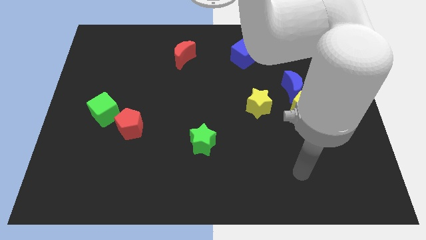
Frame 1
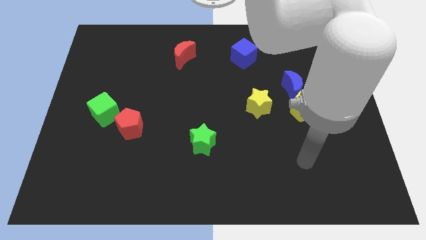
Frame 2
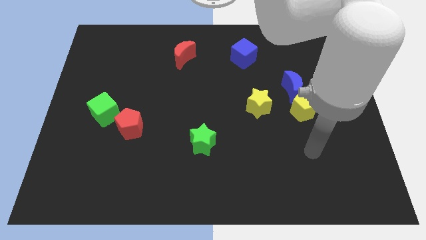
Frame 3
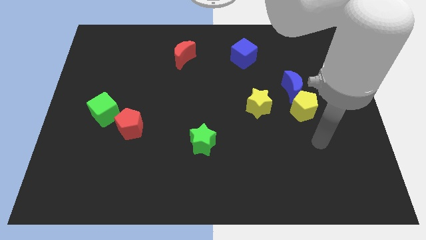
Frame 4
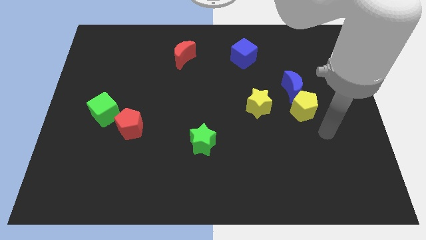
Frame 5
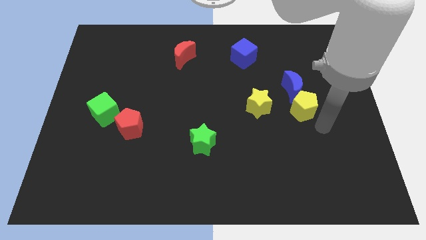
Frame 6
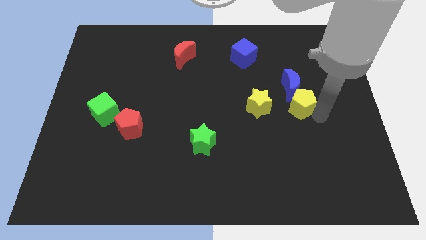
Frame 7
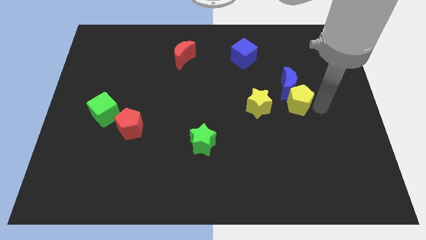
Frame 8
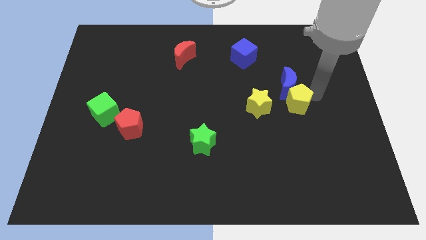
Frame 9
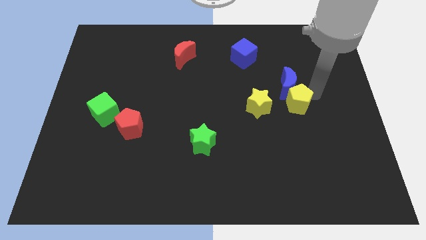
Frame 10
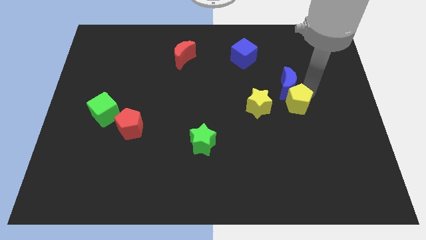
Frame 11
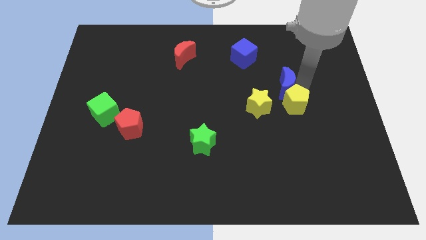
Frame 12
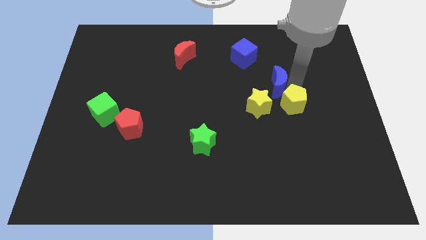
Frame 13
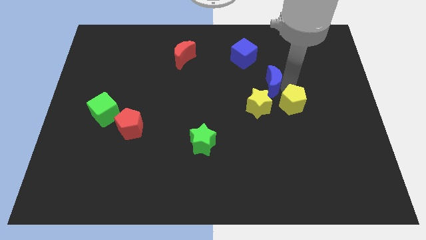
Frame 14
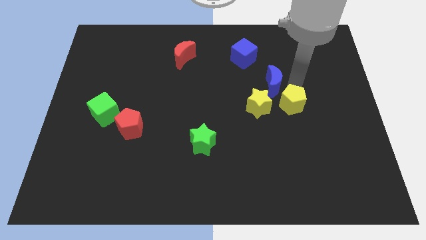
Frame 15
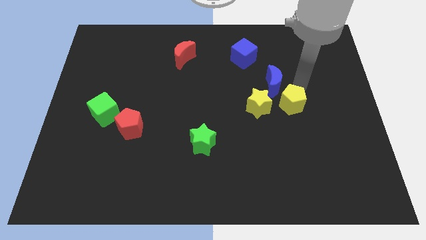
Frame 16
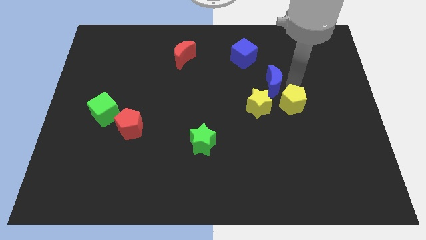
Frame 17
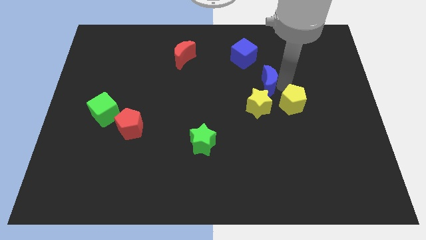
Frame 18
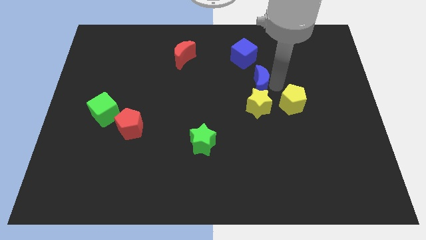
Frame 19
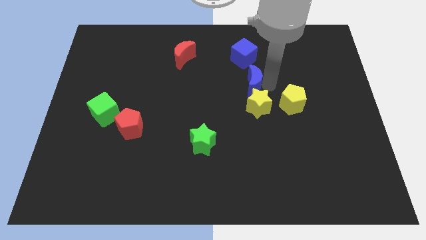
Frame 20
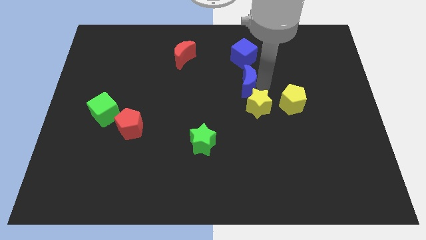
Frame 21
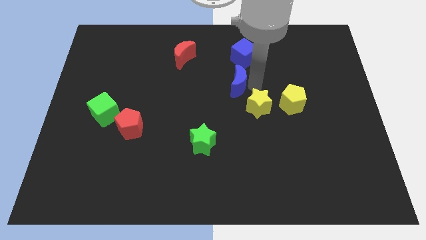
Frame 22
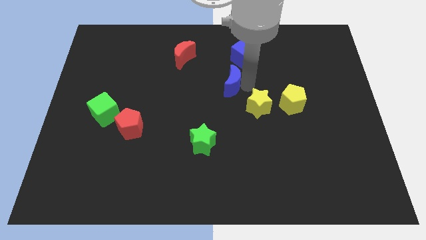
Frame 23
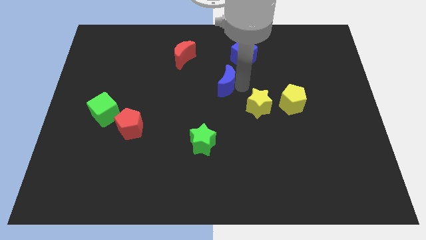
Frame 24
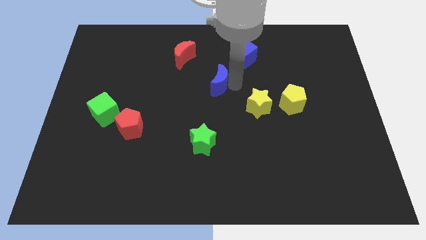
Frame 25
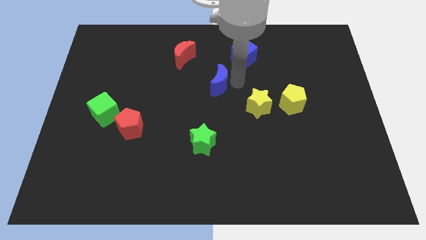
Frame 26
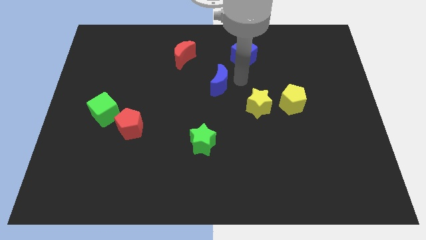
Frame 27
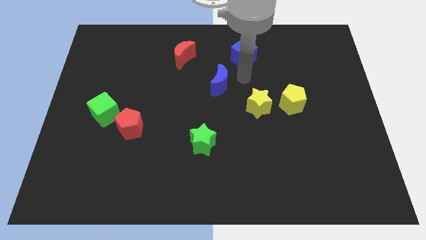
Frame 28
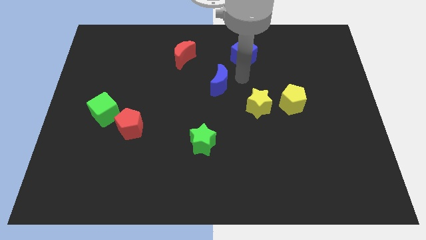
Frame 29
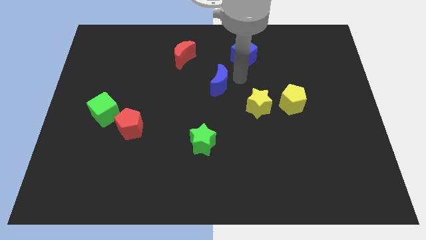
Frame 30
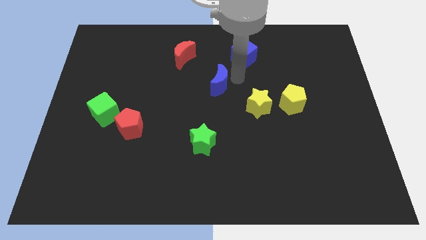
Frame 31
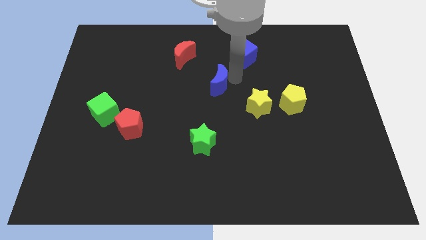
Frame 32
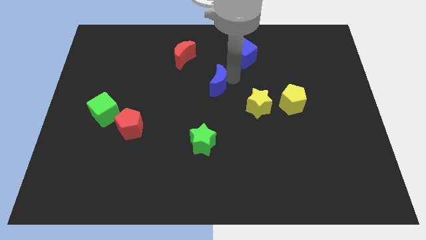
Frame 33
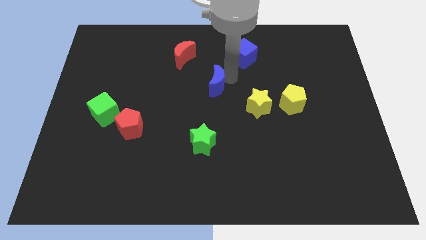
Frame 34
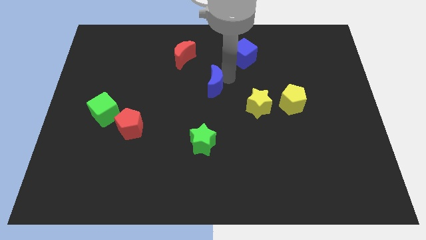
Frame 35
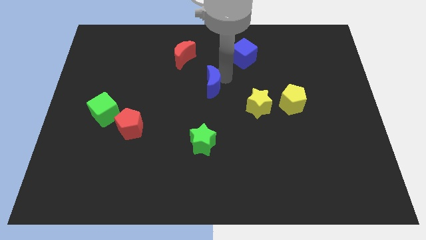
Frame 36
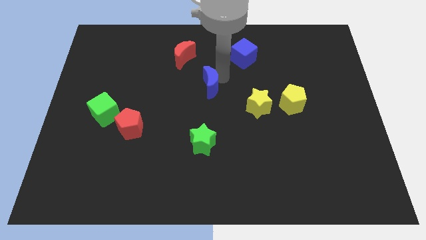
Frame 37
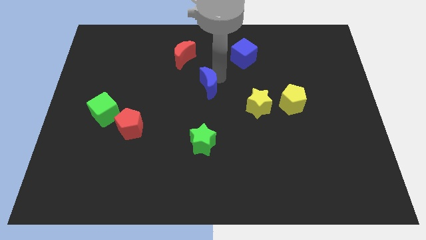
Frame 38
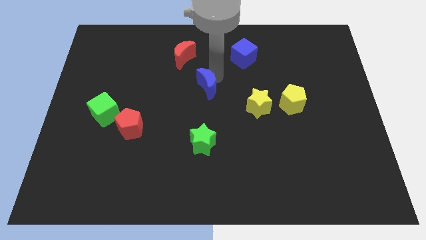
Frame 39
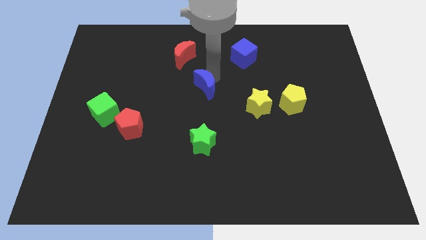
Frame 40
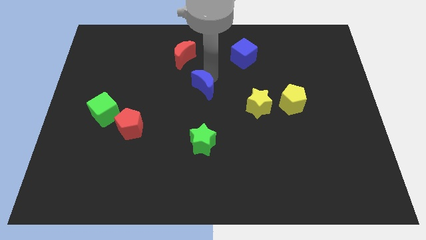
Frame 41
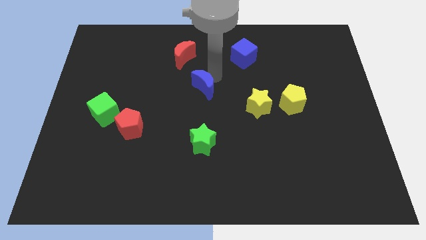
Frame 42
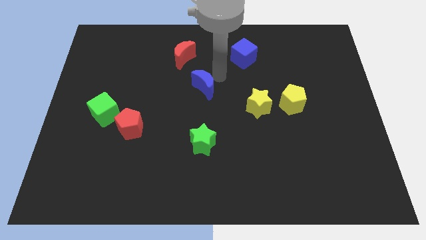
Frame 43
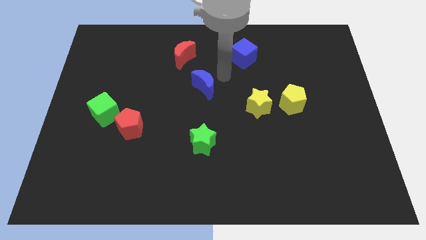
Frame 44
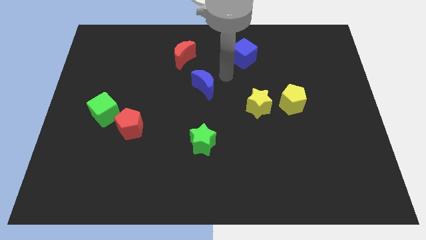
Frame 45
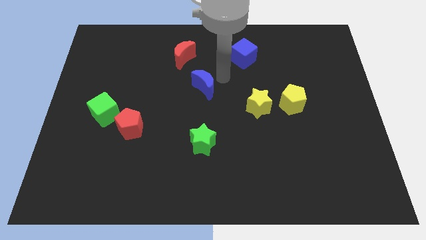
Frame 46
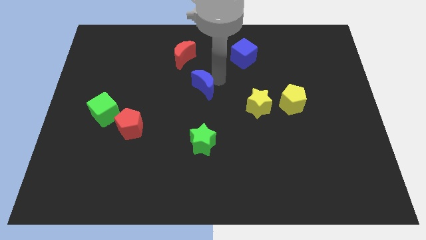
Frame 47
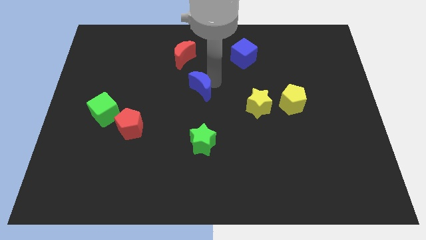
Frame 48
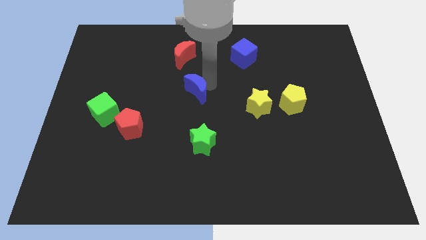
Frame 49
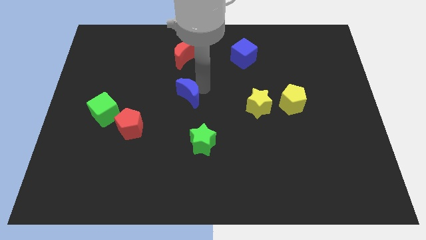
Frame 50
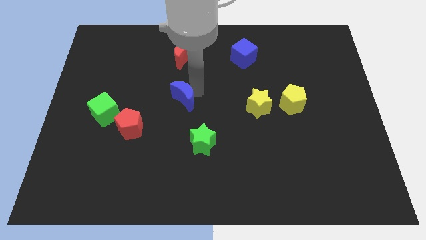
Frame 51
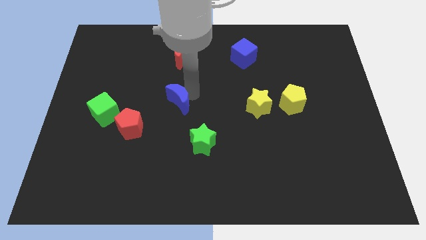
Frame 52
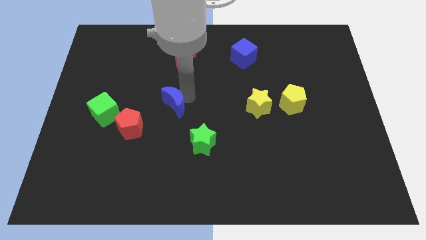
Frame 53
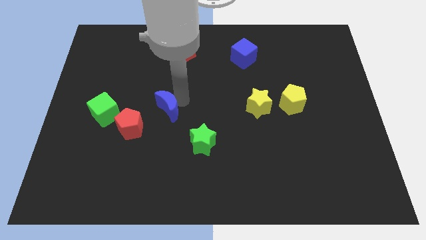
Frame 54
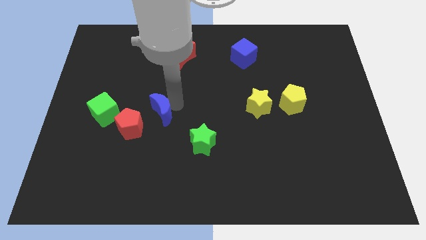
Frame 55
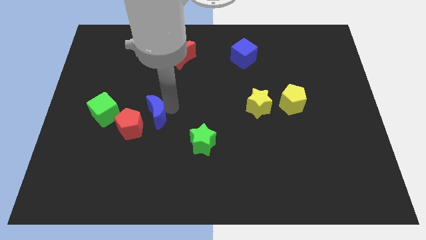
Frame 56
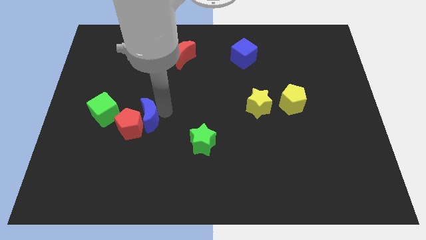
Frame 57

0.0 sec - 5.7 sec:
slide the blue moon next to the red pentagon

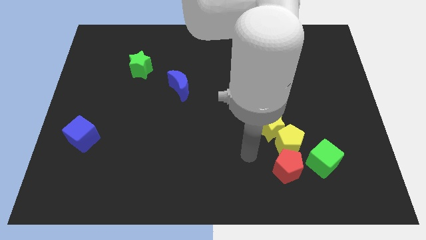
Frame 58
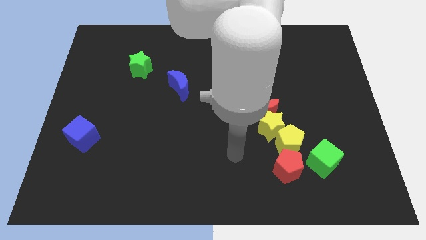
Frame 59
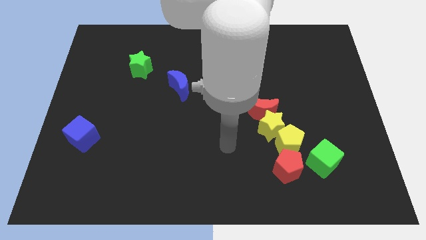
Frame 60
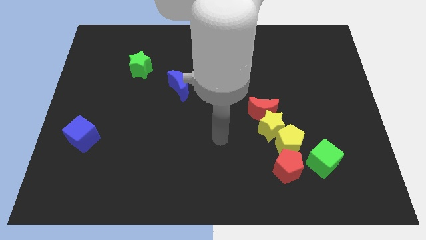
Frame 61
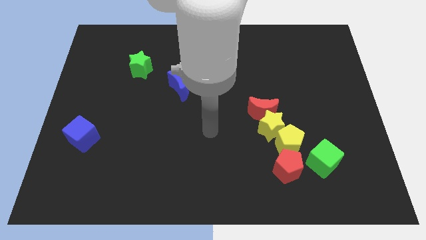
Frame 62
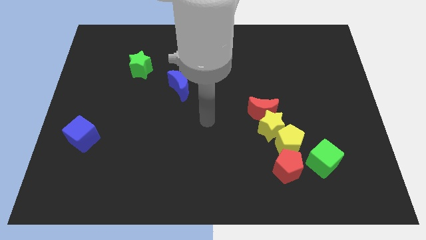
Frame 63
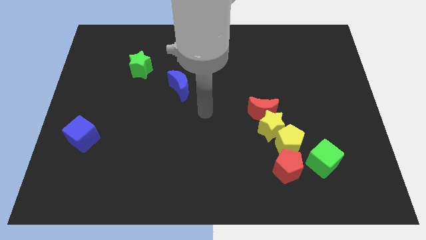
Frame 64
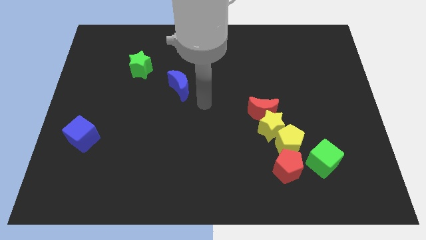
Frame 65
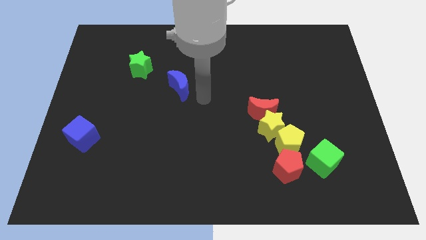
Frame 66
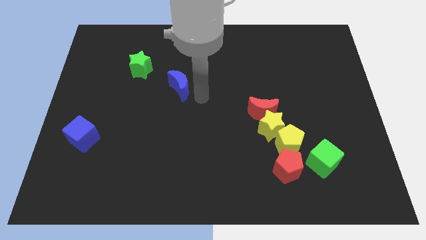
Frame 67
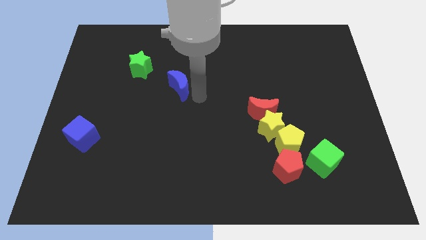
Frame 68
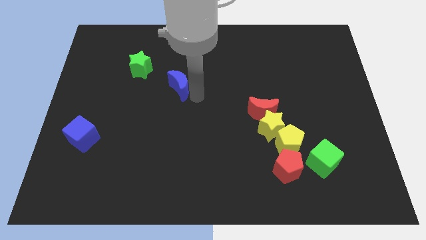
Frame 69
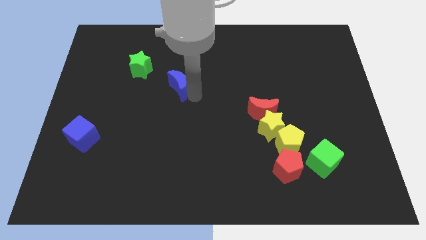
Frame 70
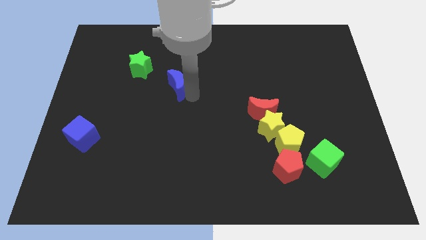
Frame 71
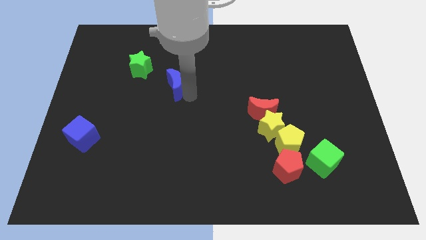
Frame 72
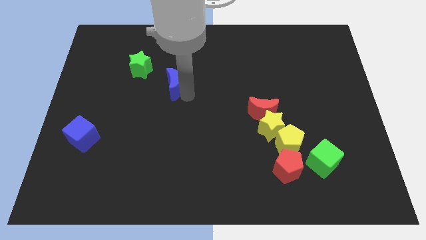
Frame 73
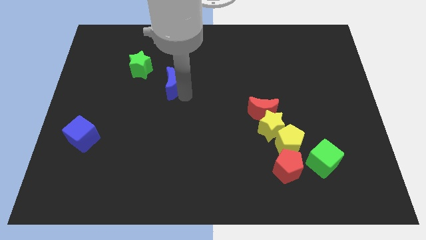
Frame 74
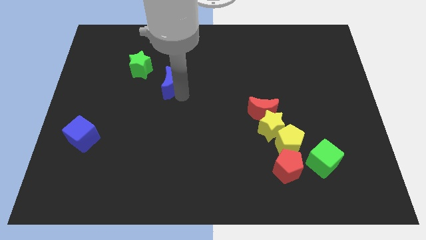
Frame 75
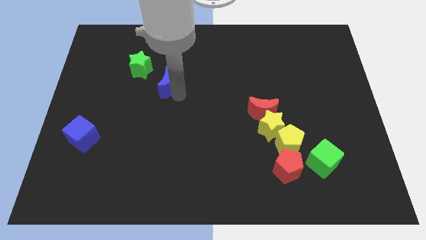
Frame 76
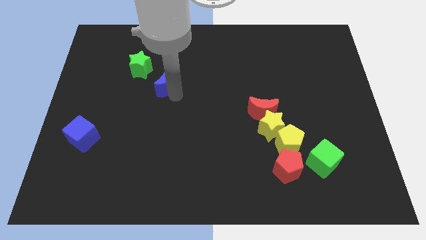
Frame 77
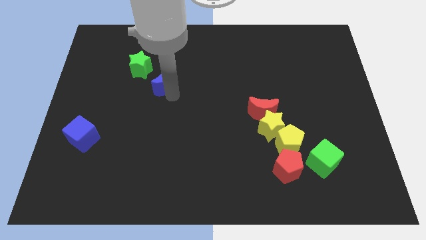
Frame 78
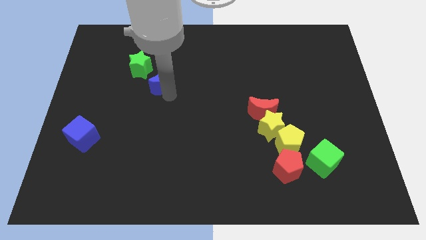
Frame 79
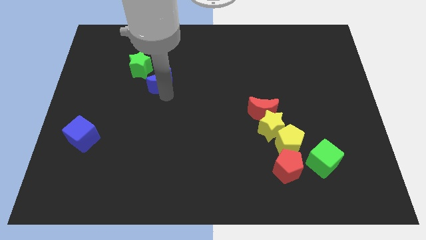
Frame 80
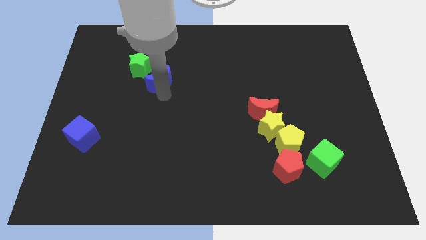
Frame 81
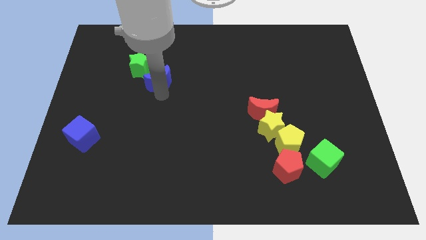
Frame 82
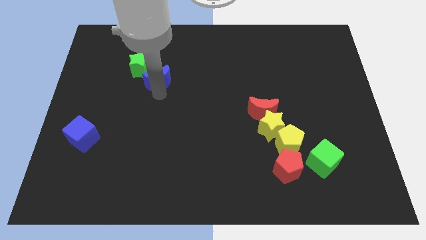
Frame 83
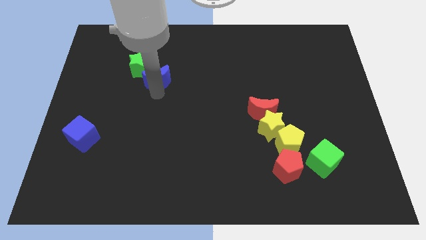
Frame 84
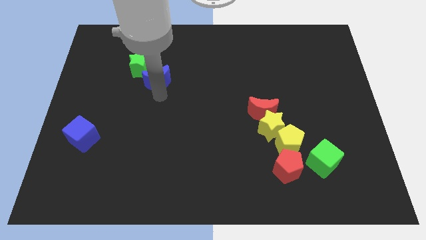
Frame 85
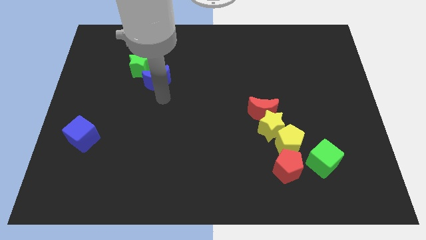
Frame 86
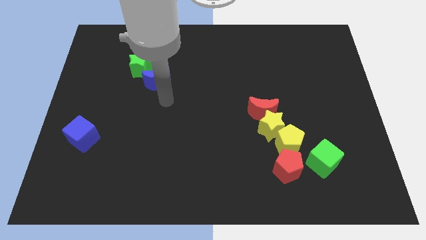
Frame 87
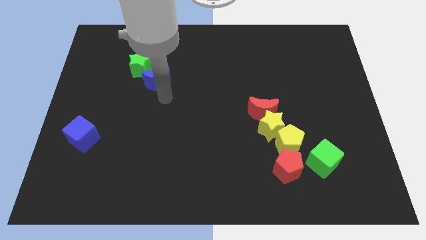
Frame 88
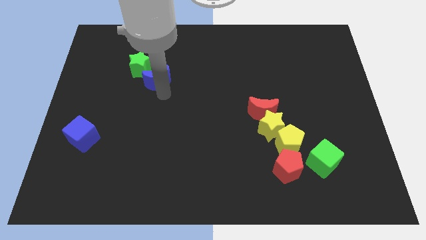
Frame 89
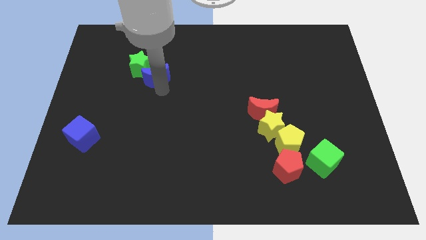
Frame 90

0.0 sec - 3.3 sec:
move the blue moon close to the green star
